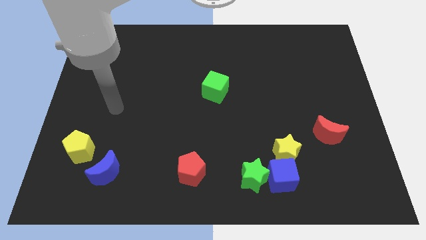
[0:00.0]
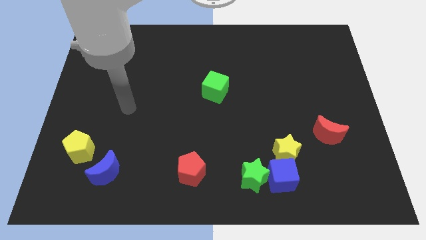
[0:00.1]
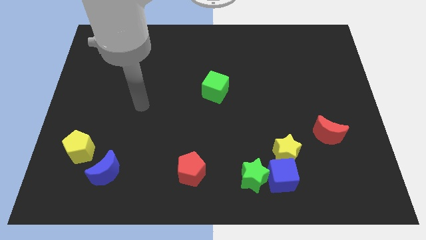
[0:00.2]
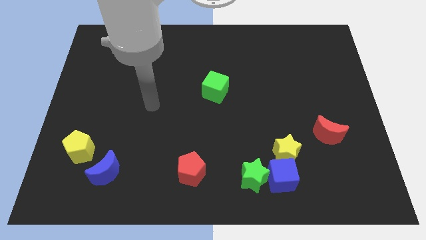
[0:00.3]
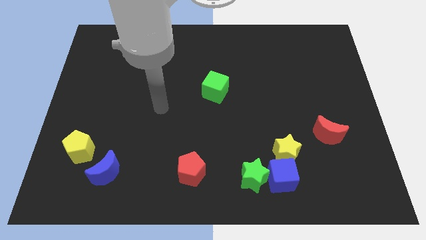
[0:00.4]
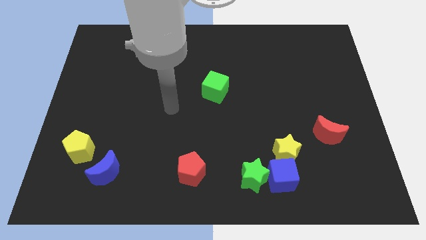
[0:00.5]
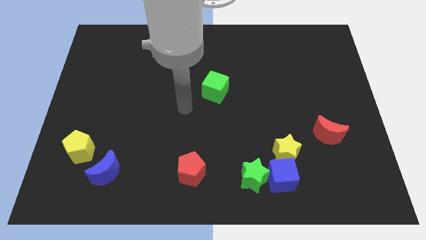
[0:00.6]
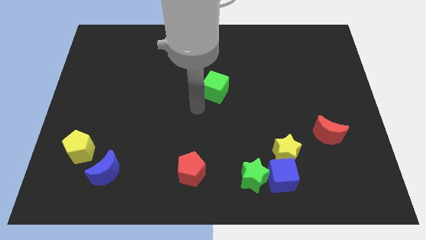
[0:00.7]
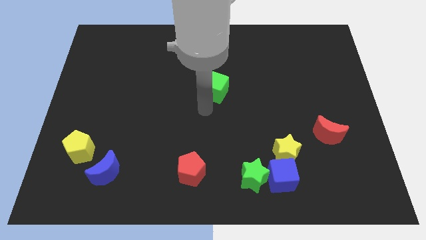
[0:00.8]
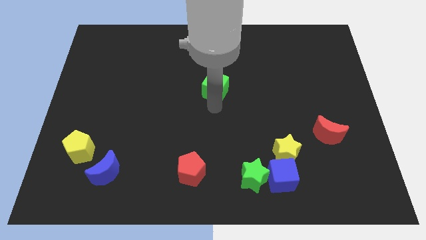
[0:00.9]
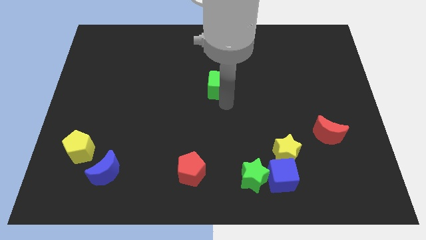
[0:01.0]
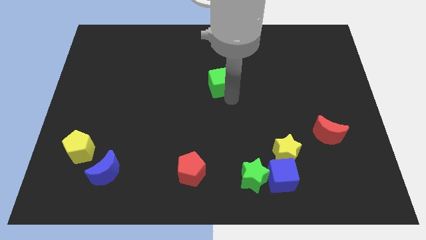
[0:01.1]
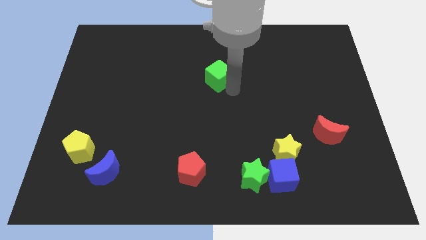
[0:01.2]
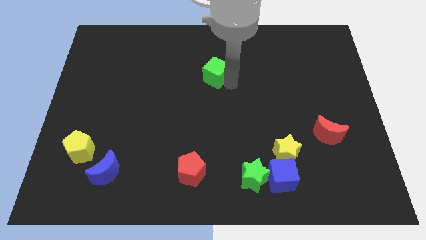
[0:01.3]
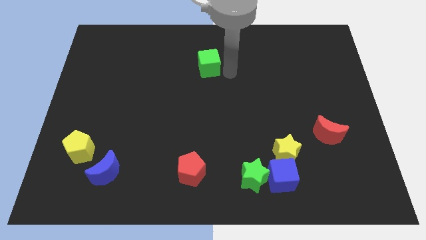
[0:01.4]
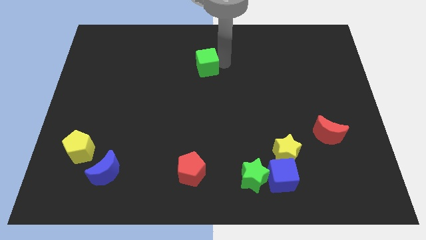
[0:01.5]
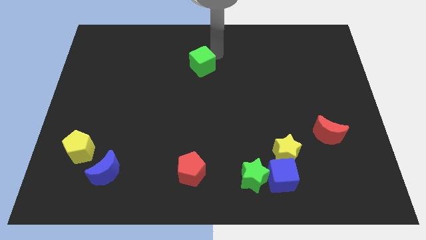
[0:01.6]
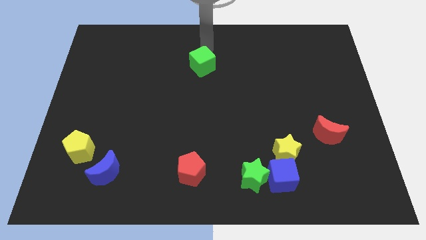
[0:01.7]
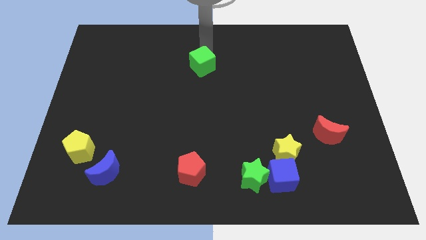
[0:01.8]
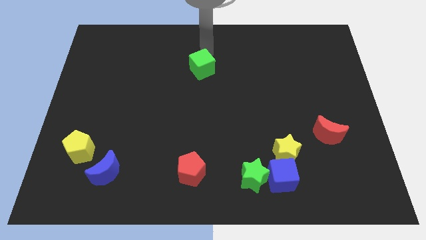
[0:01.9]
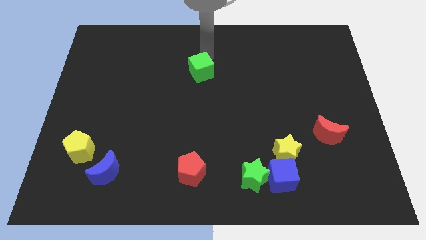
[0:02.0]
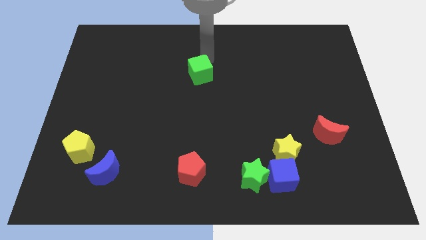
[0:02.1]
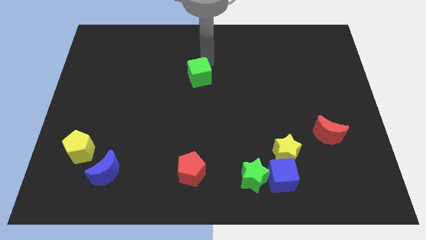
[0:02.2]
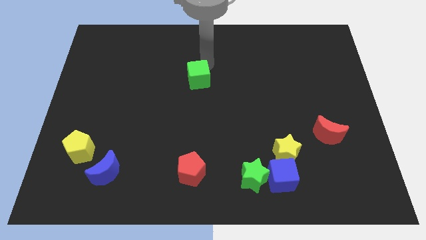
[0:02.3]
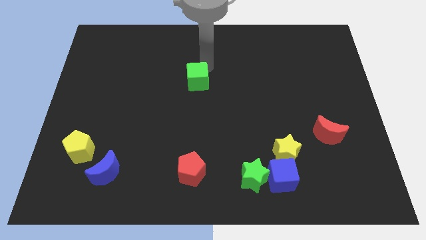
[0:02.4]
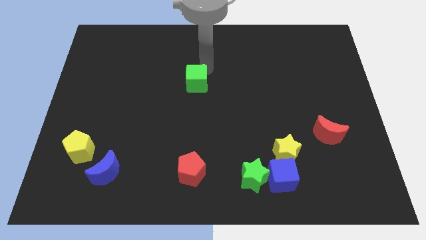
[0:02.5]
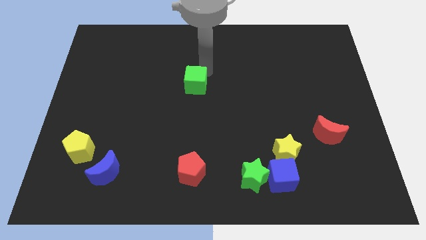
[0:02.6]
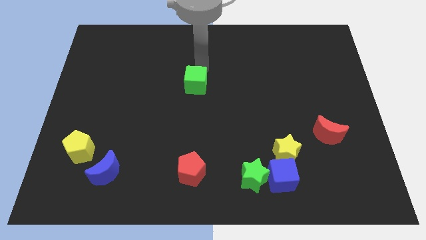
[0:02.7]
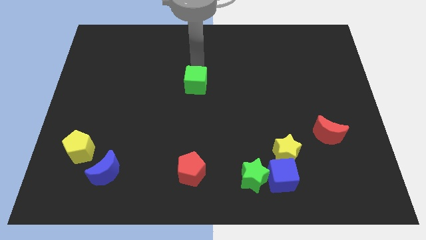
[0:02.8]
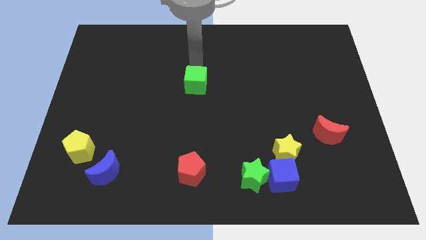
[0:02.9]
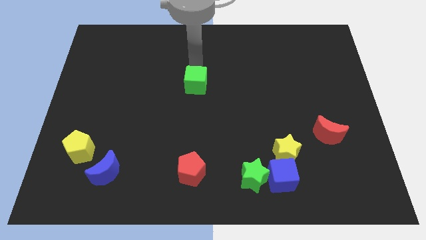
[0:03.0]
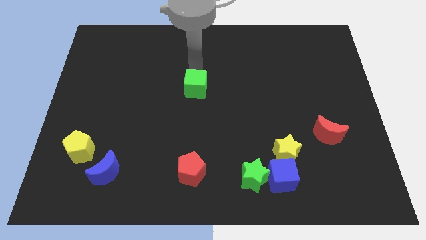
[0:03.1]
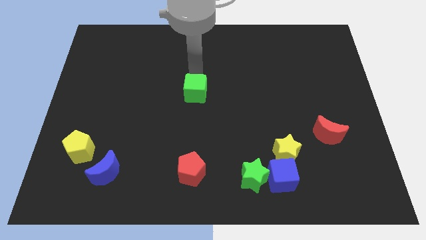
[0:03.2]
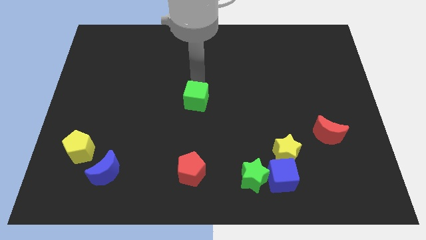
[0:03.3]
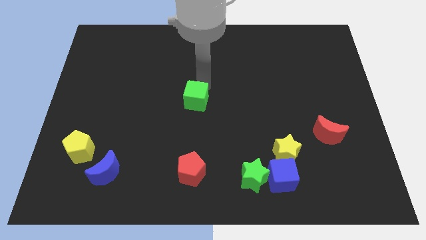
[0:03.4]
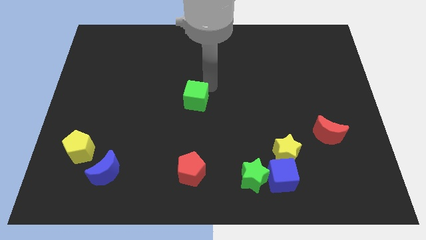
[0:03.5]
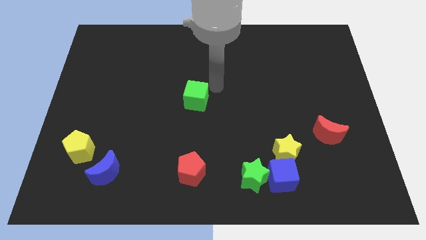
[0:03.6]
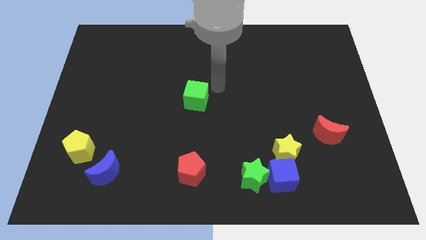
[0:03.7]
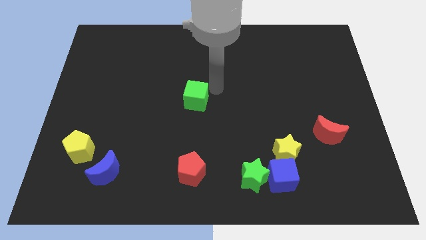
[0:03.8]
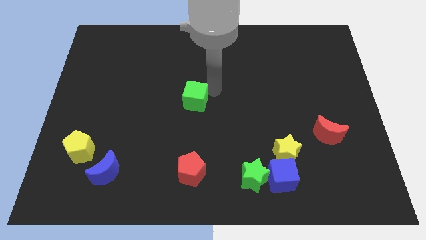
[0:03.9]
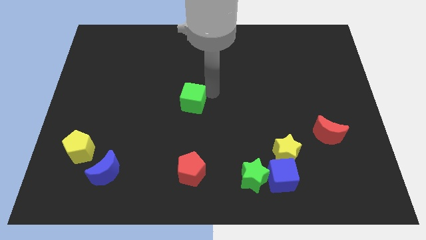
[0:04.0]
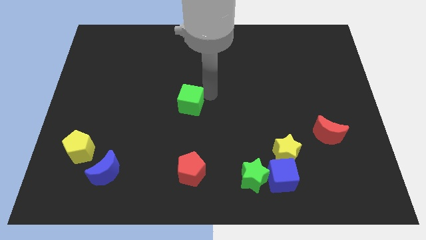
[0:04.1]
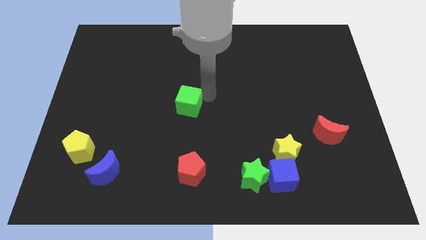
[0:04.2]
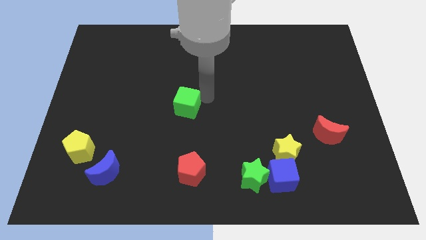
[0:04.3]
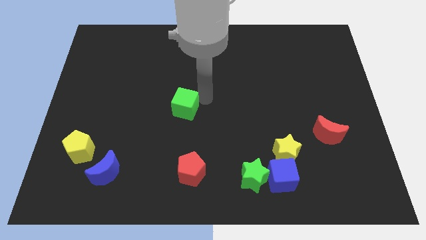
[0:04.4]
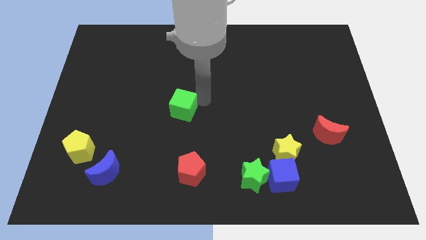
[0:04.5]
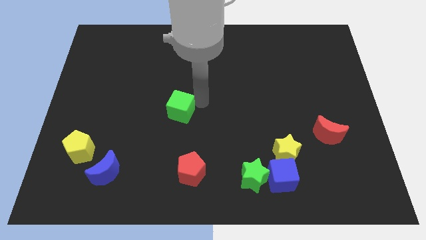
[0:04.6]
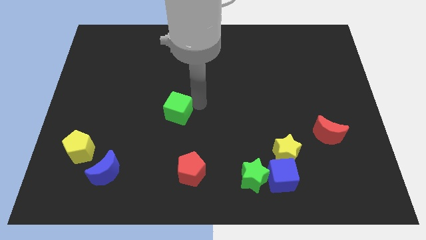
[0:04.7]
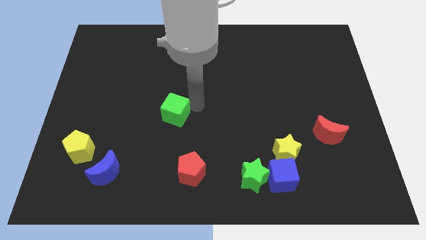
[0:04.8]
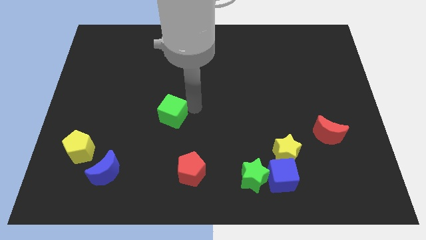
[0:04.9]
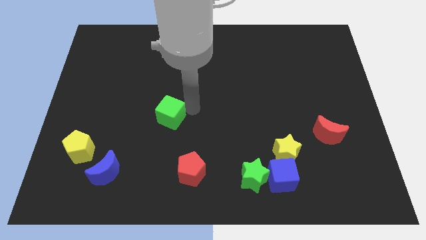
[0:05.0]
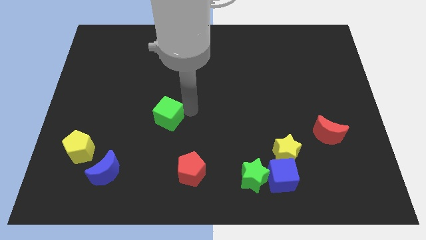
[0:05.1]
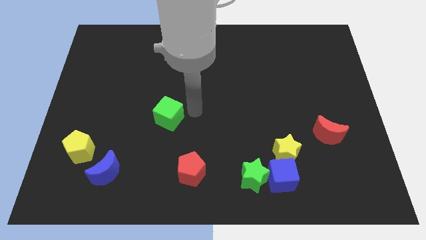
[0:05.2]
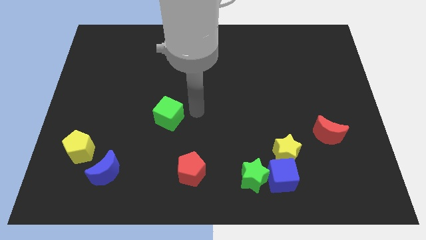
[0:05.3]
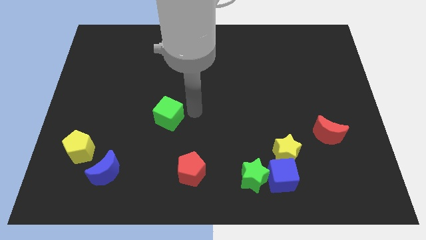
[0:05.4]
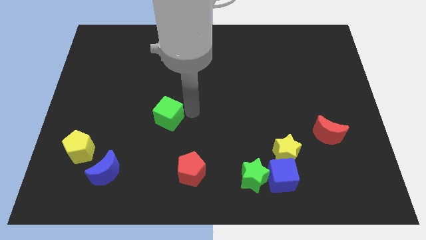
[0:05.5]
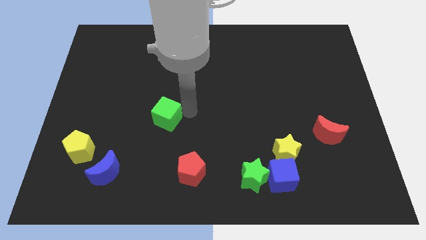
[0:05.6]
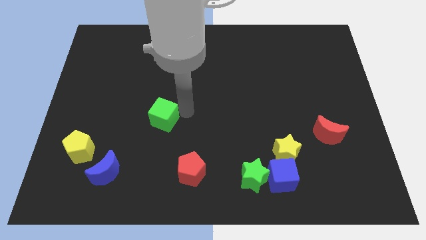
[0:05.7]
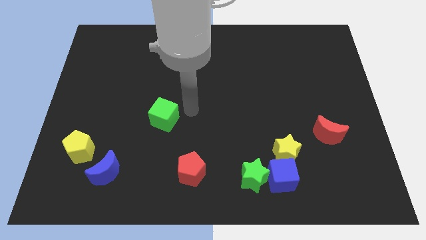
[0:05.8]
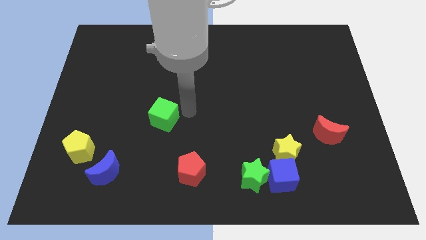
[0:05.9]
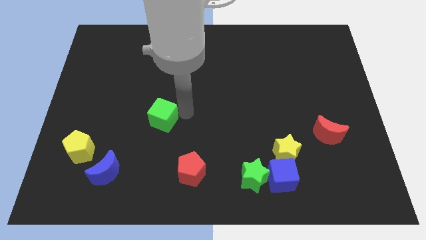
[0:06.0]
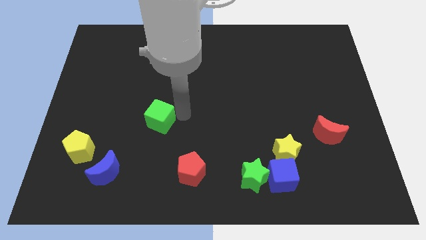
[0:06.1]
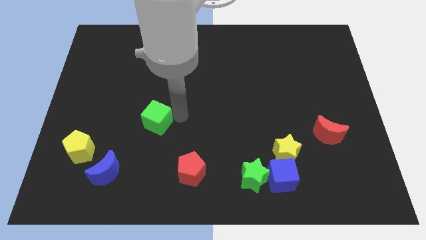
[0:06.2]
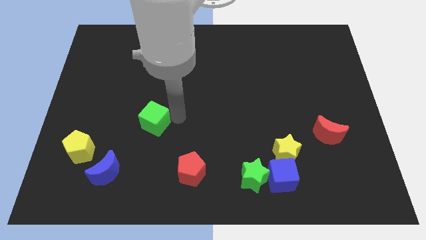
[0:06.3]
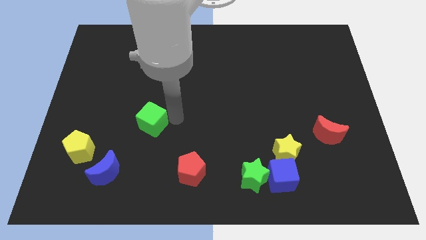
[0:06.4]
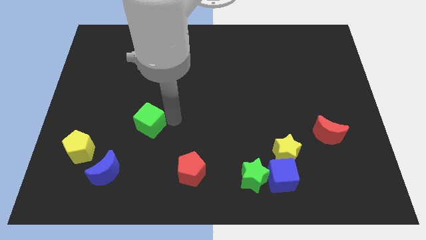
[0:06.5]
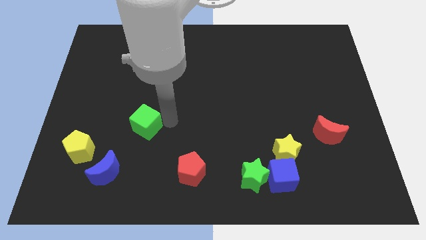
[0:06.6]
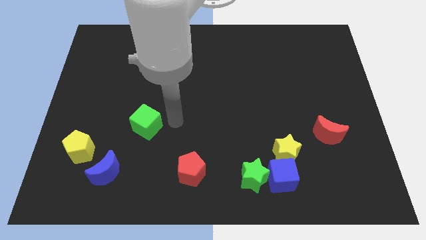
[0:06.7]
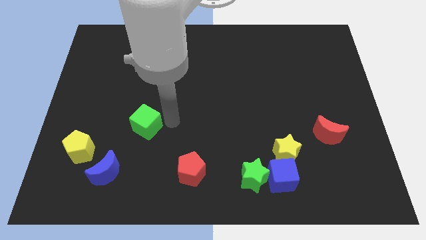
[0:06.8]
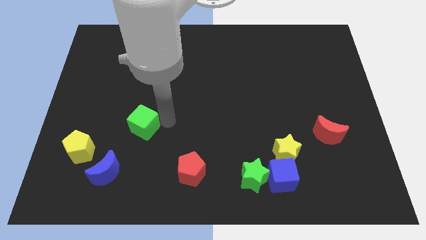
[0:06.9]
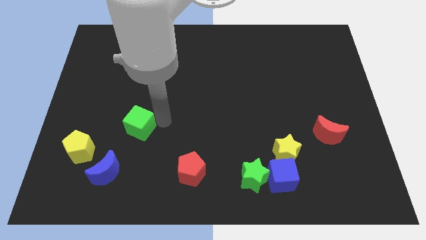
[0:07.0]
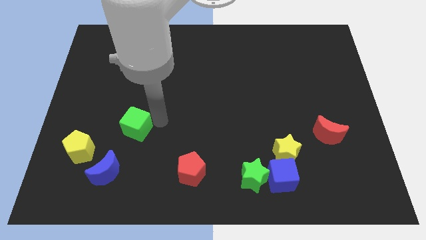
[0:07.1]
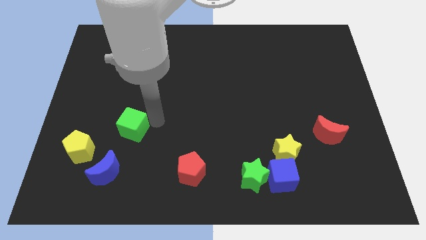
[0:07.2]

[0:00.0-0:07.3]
move the green cube to the top right of the yellow pentagon
